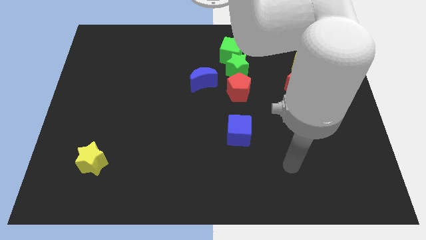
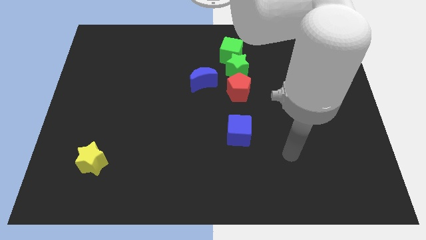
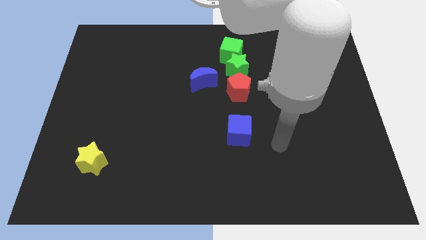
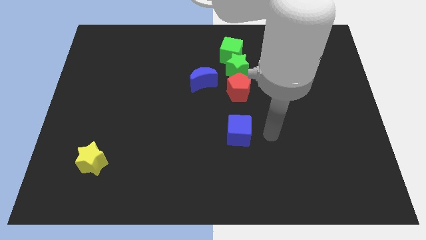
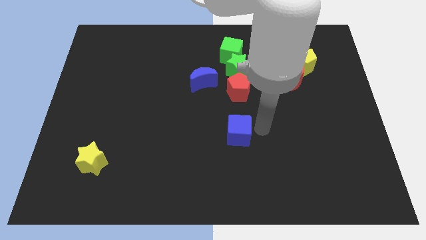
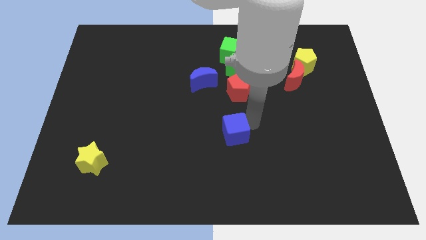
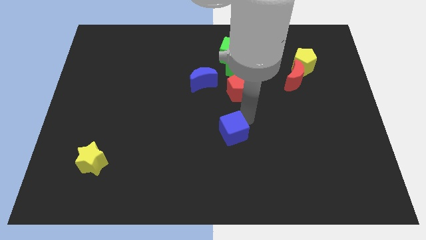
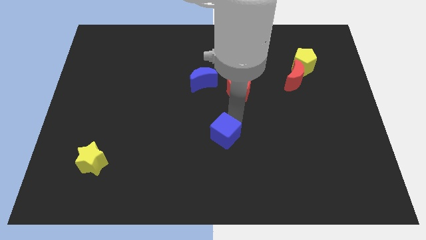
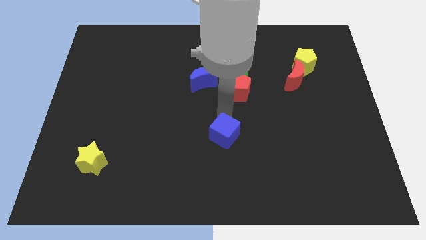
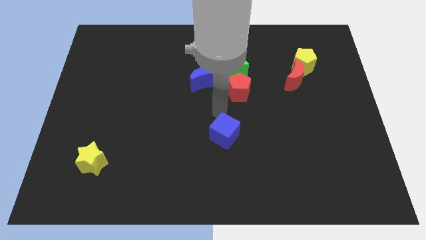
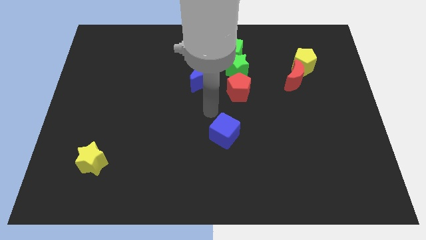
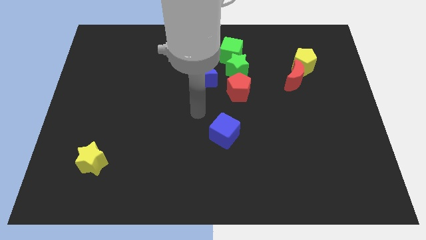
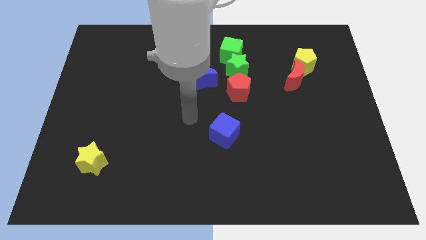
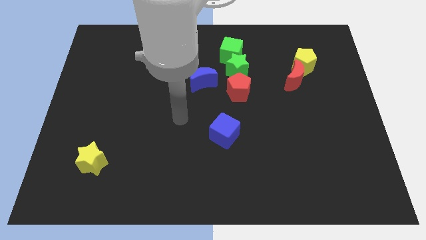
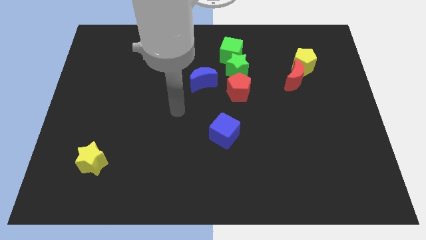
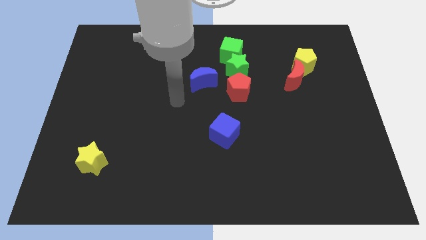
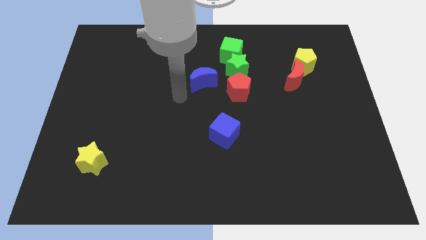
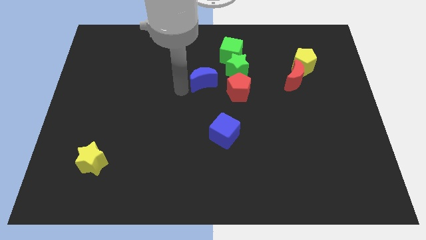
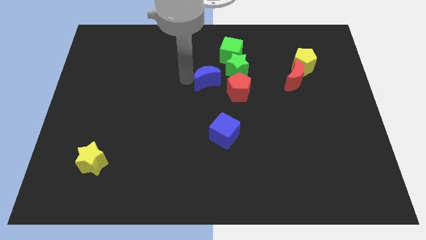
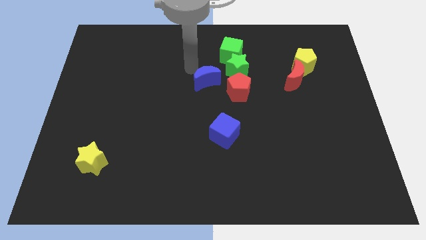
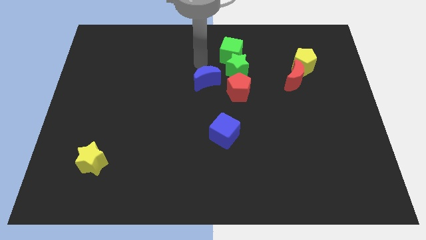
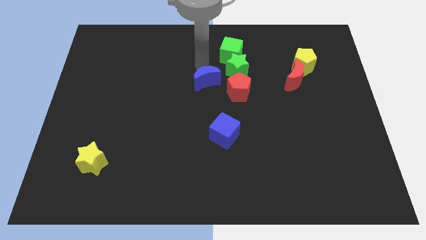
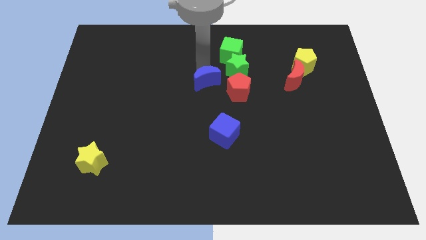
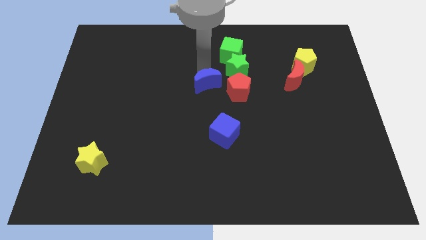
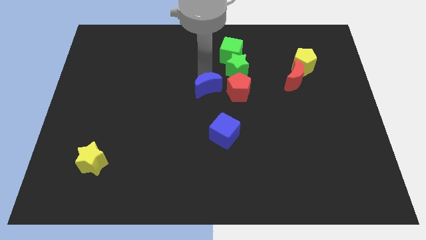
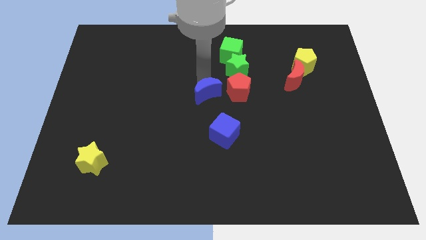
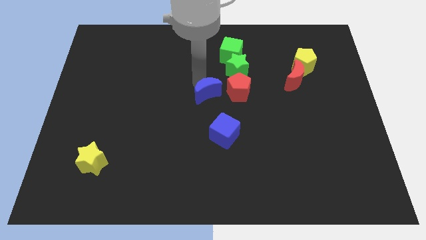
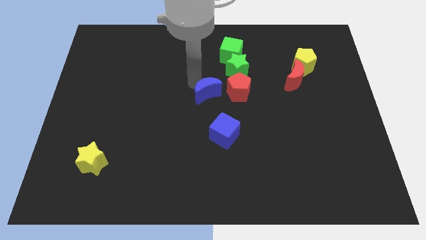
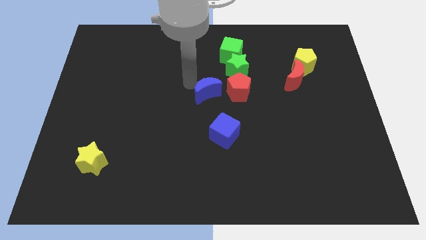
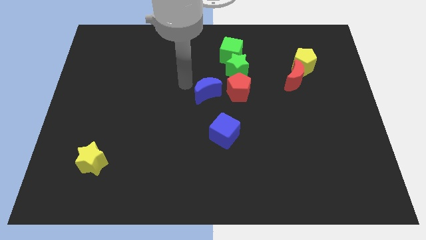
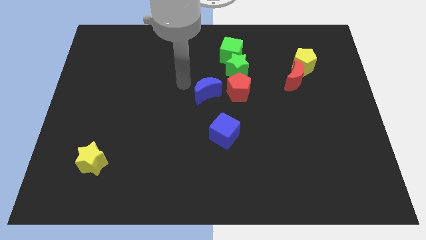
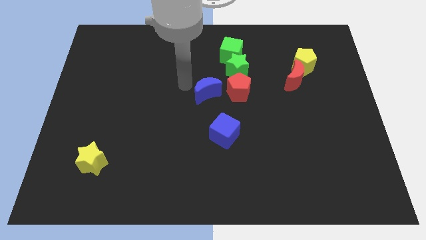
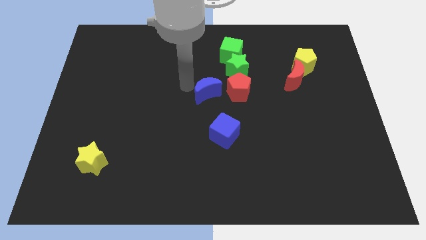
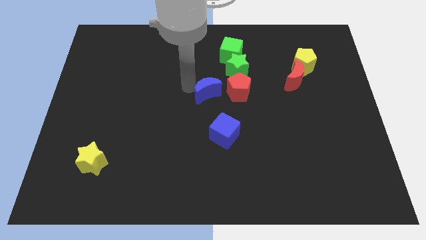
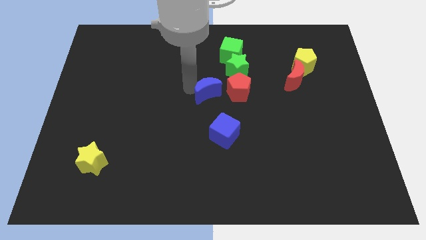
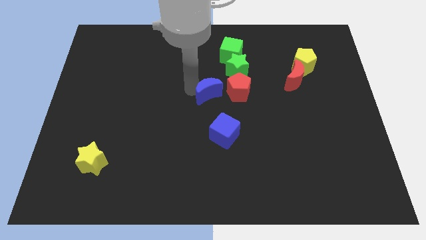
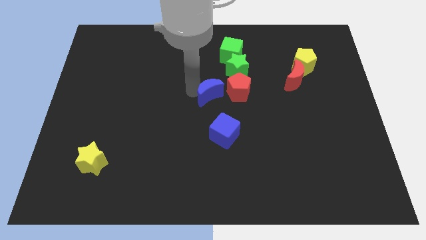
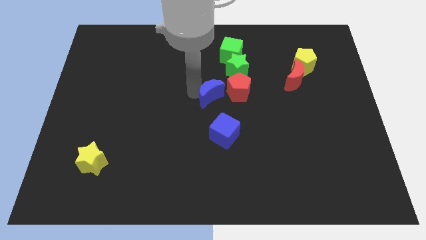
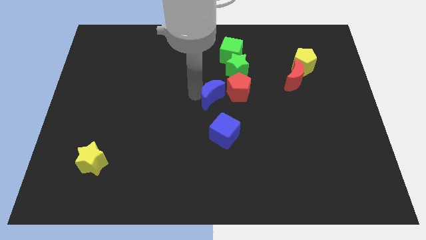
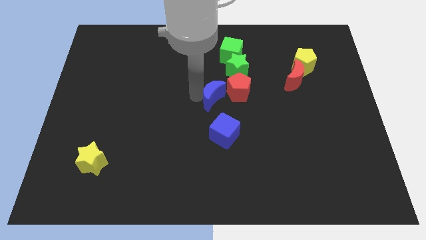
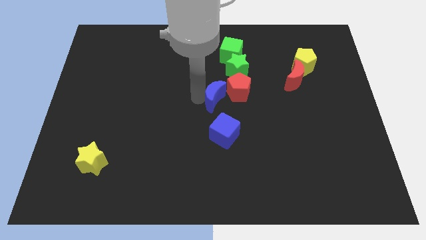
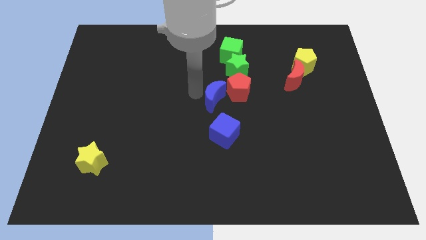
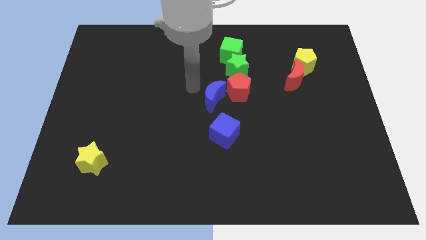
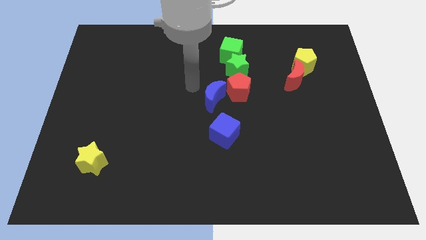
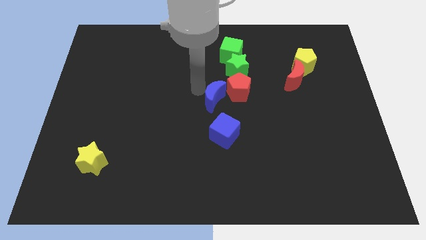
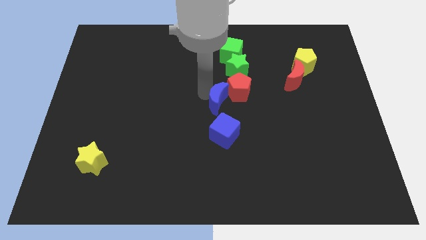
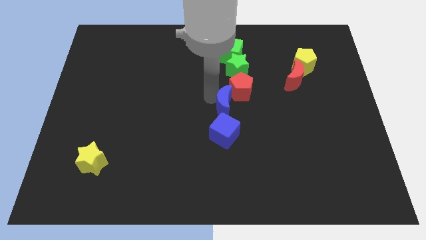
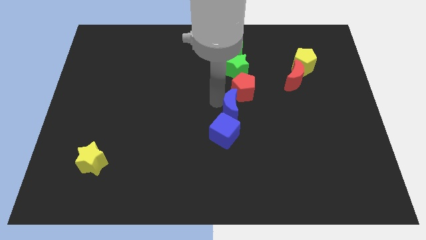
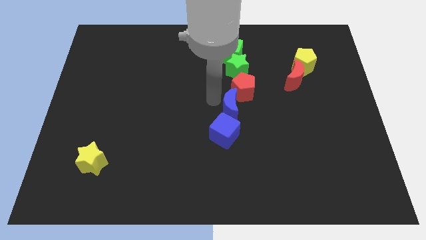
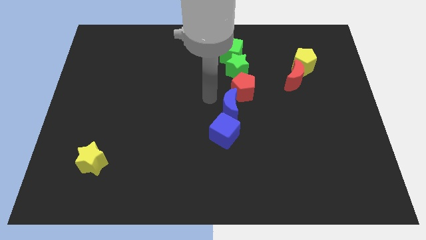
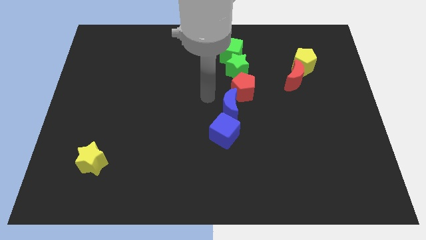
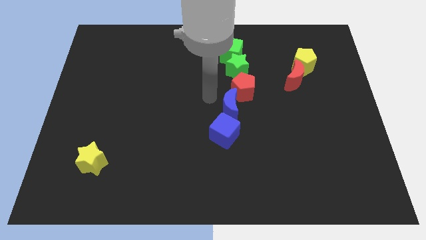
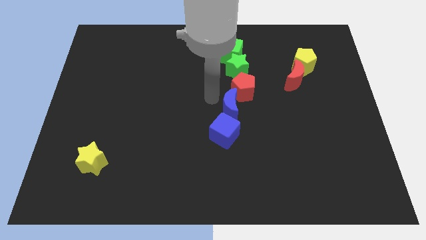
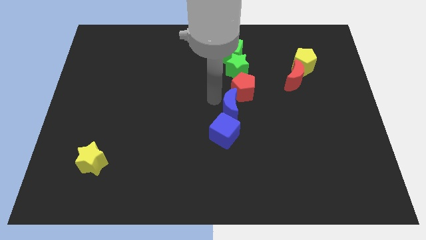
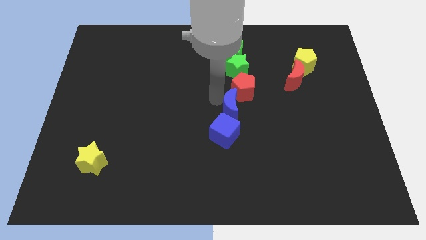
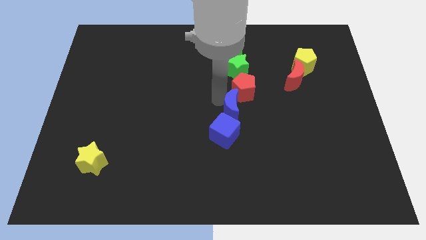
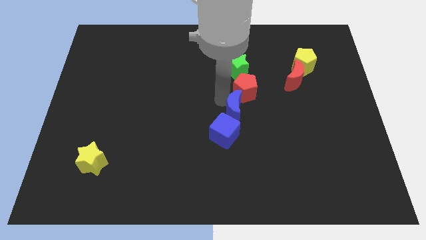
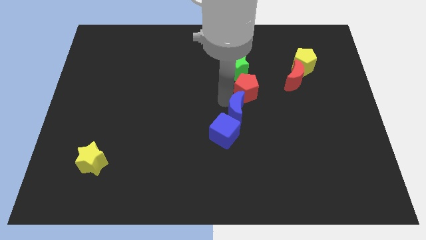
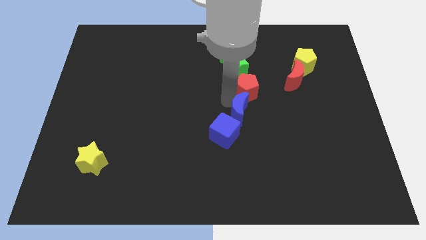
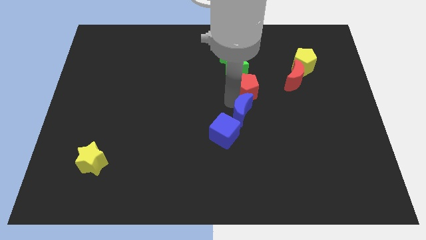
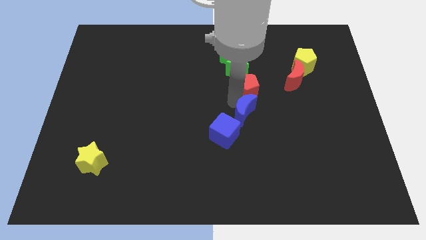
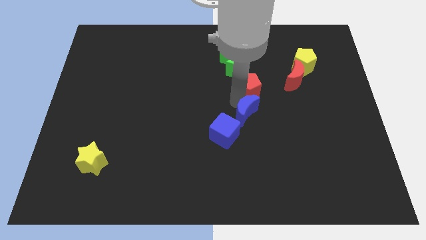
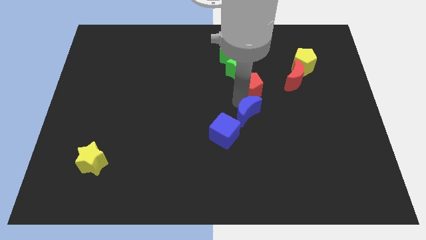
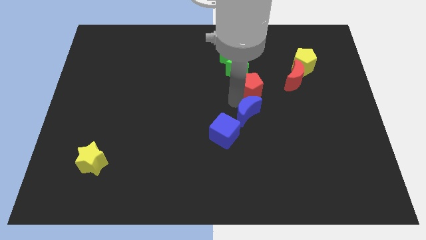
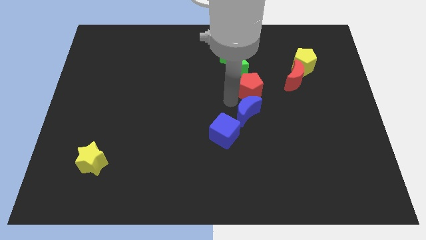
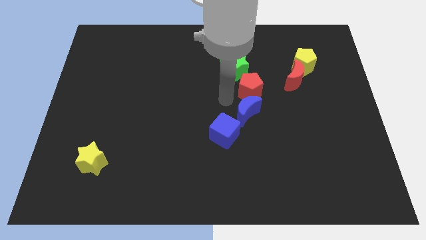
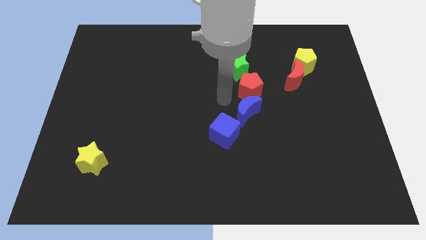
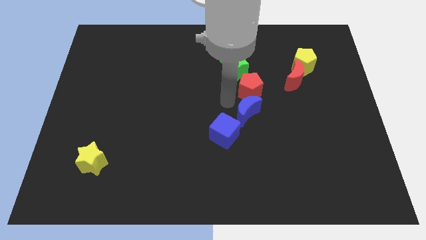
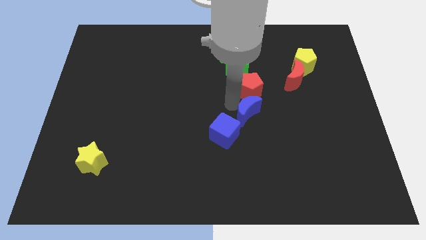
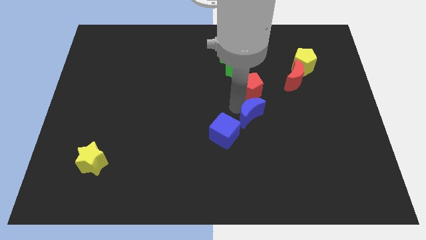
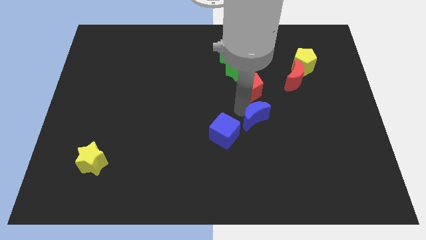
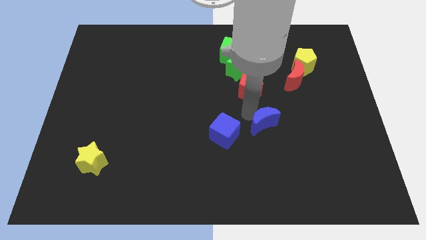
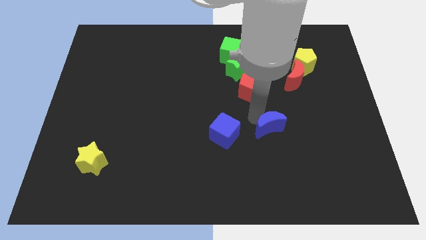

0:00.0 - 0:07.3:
slide the blue moon down and right diagonally

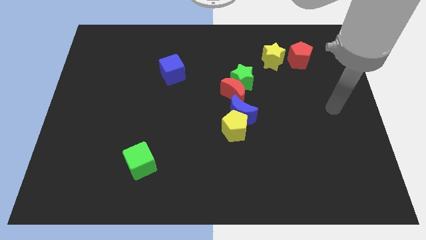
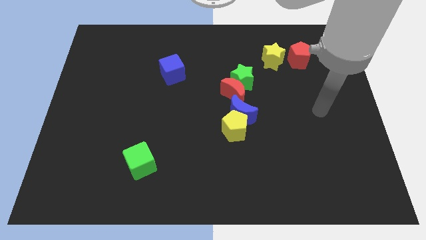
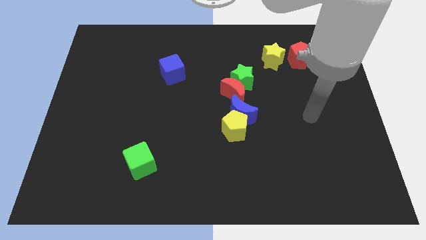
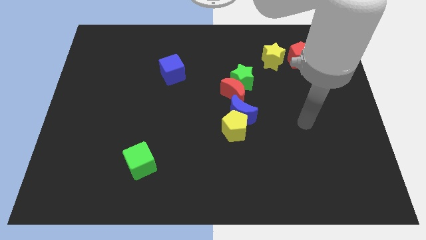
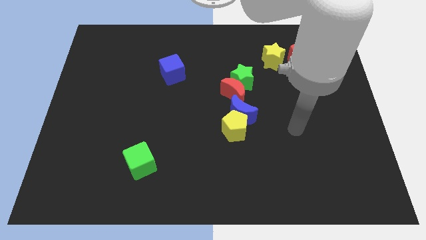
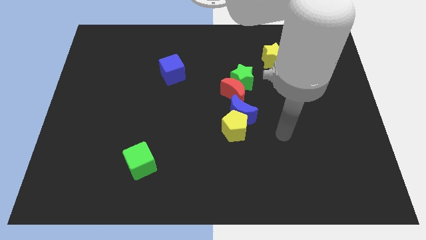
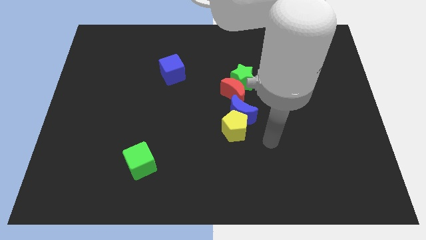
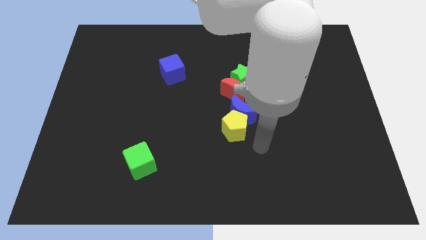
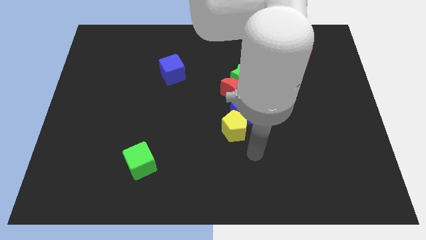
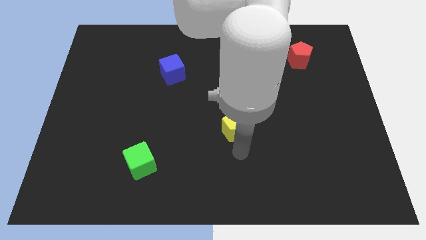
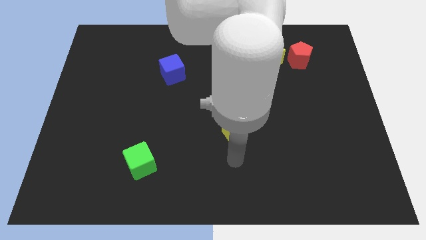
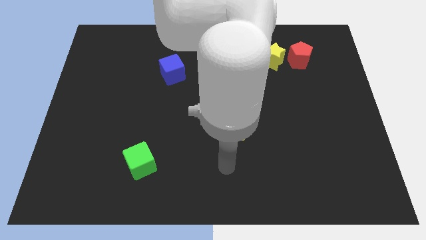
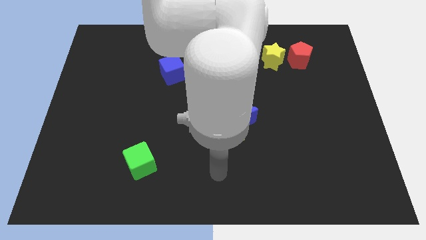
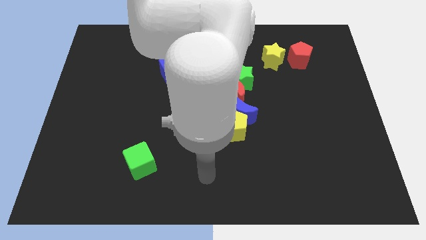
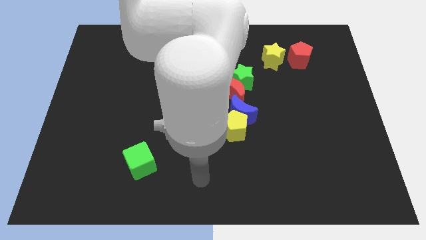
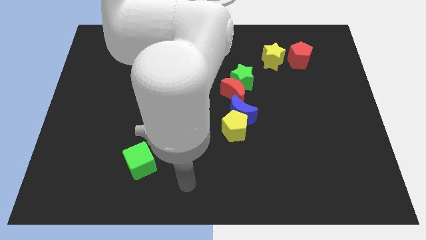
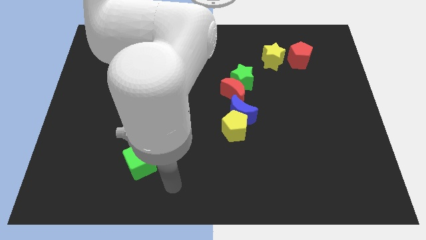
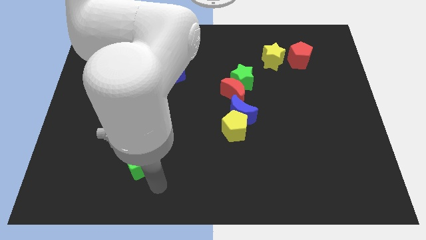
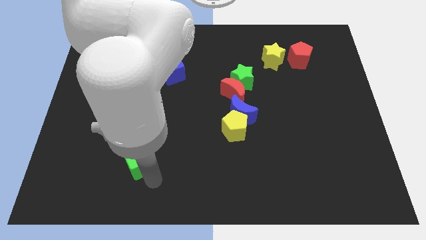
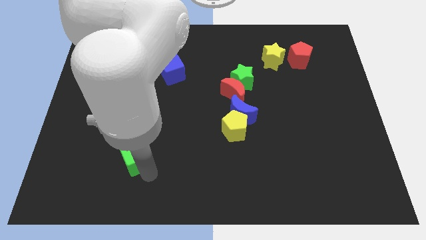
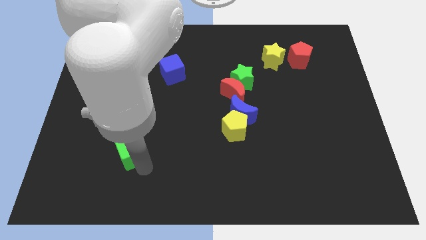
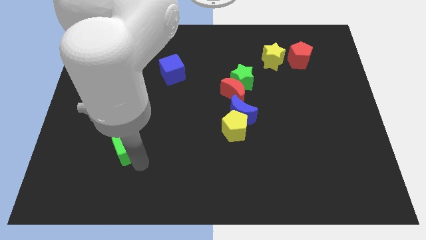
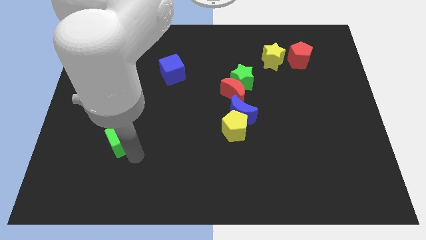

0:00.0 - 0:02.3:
slide the green cube up and then to the left a little bit
